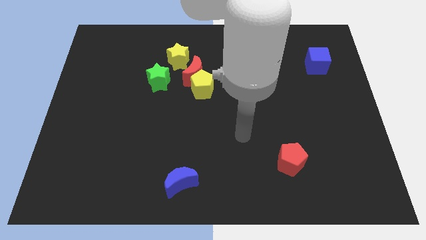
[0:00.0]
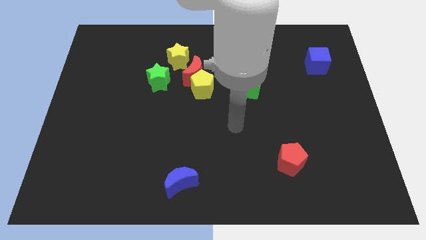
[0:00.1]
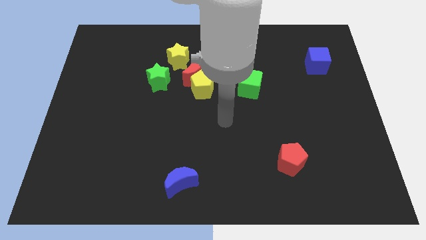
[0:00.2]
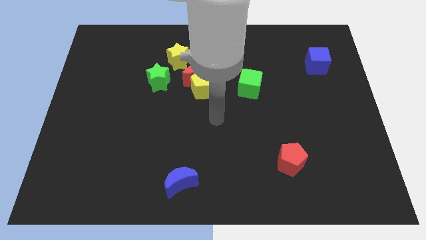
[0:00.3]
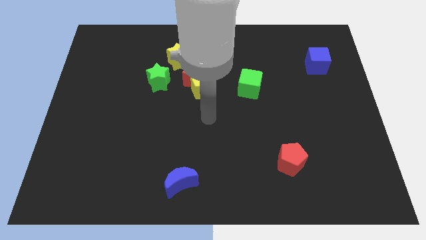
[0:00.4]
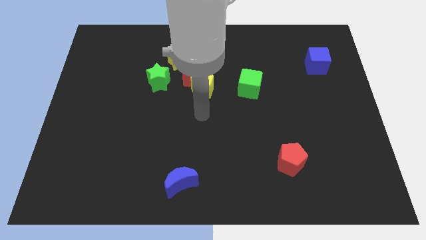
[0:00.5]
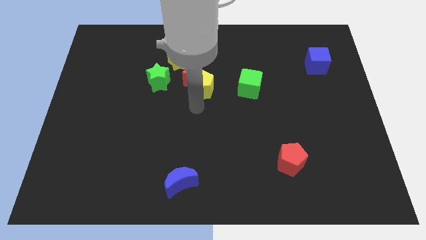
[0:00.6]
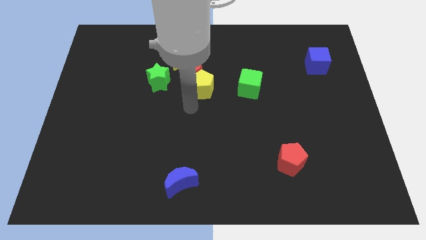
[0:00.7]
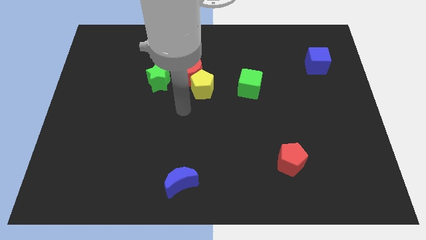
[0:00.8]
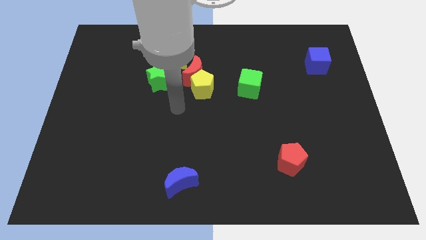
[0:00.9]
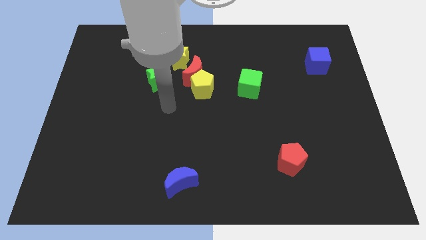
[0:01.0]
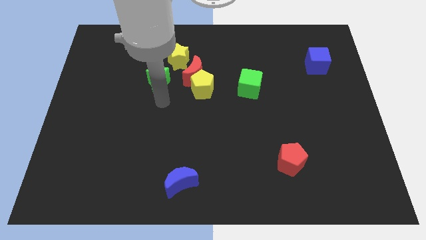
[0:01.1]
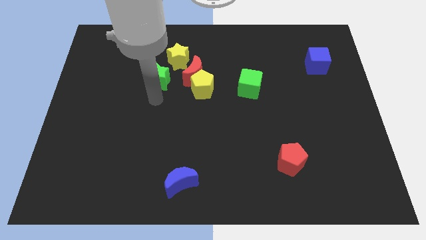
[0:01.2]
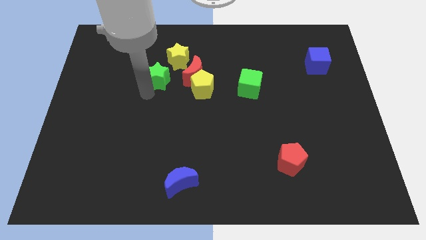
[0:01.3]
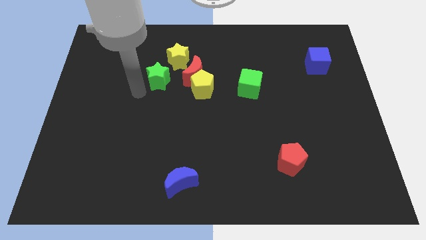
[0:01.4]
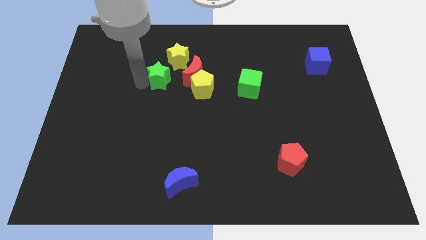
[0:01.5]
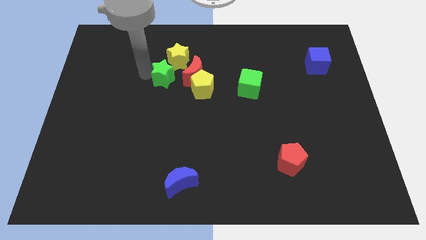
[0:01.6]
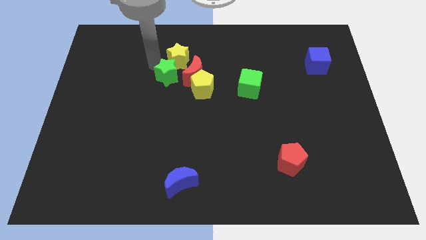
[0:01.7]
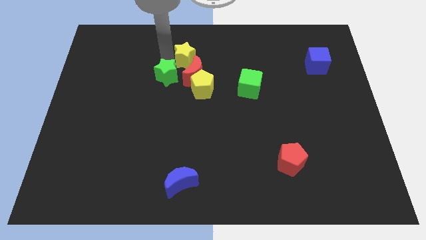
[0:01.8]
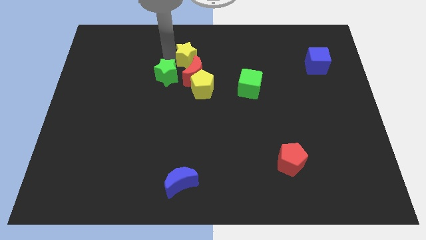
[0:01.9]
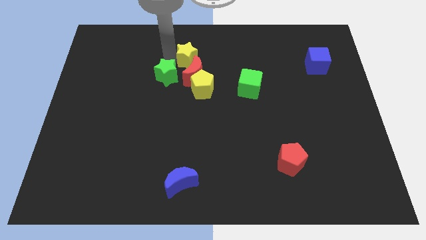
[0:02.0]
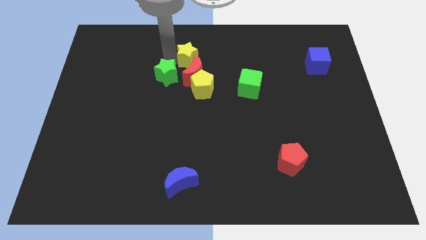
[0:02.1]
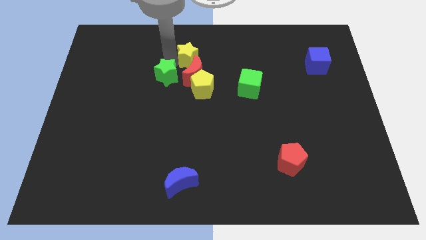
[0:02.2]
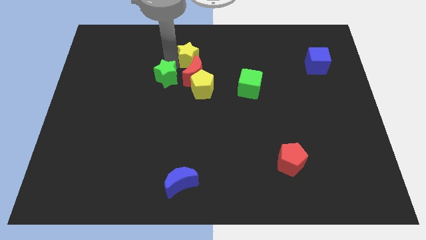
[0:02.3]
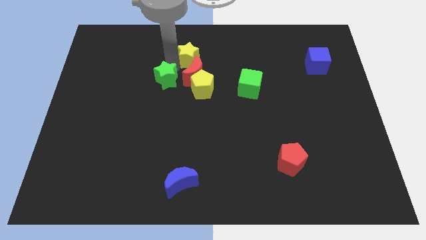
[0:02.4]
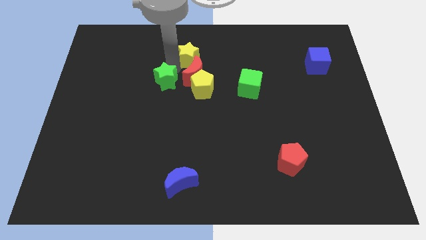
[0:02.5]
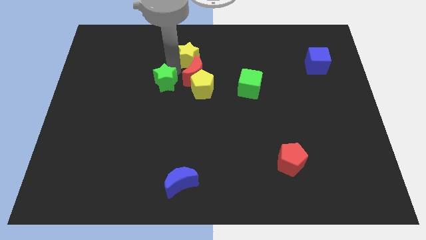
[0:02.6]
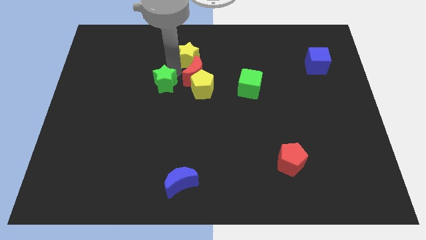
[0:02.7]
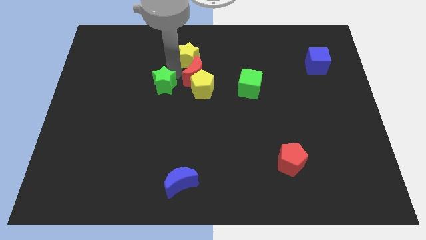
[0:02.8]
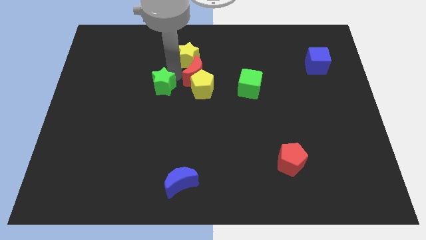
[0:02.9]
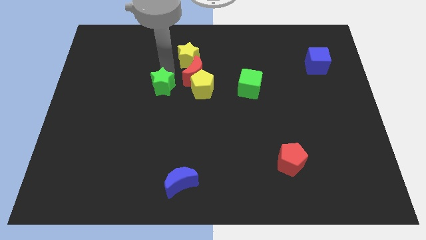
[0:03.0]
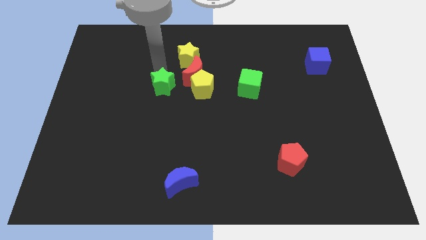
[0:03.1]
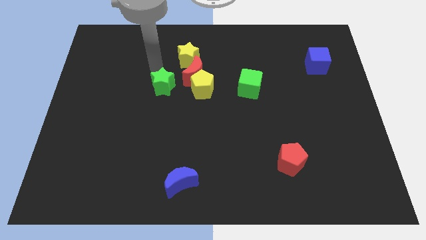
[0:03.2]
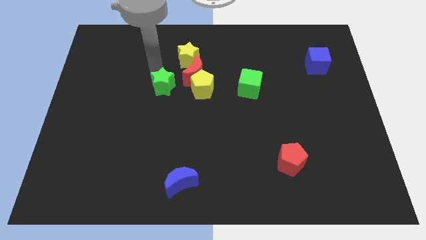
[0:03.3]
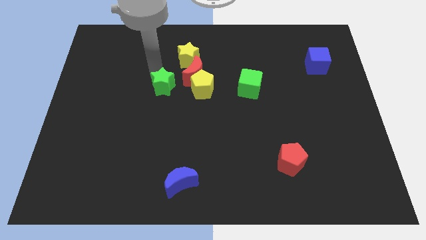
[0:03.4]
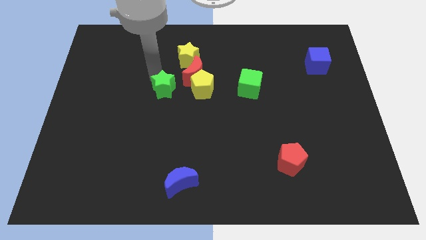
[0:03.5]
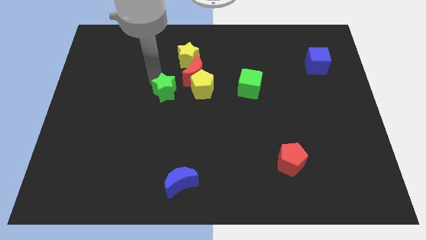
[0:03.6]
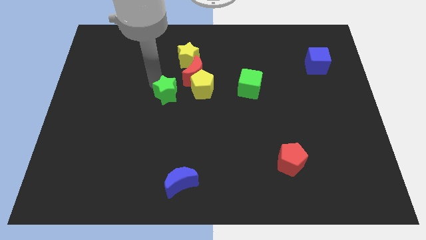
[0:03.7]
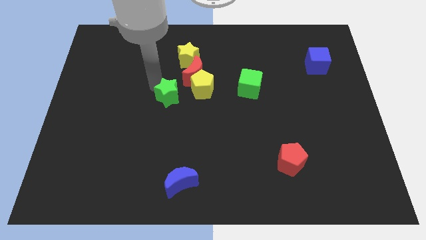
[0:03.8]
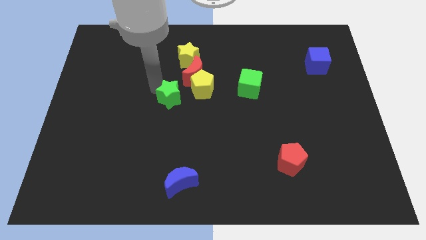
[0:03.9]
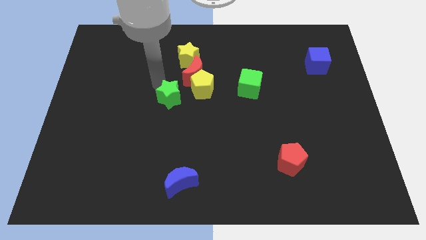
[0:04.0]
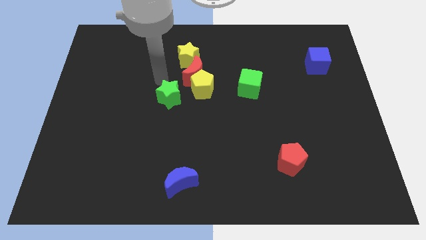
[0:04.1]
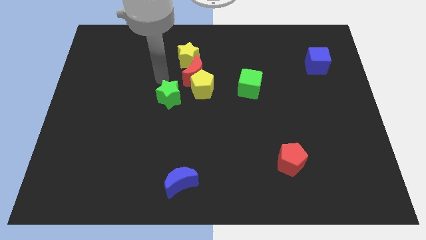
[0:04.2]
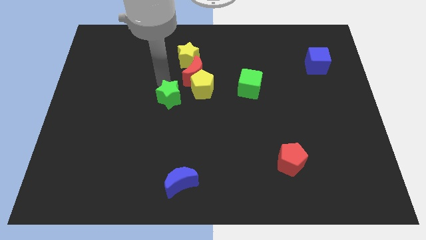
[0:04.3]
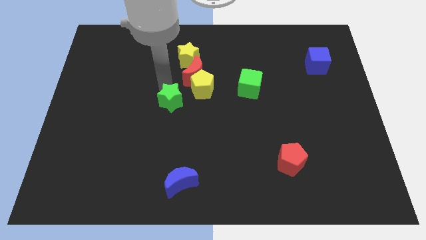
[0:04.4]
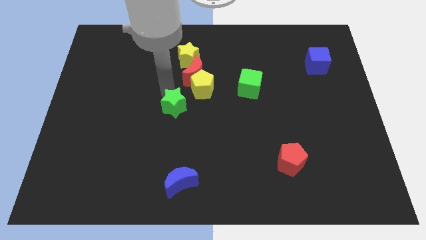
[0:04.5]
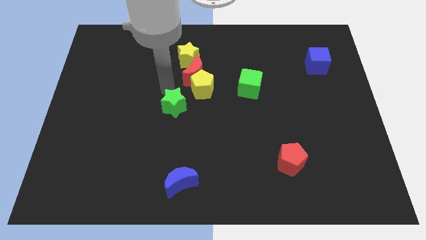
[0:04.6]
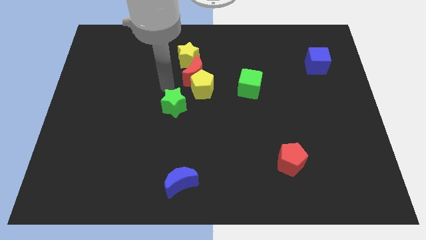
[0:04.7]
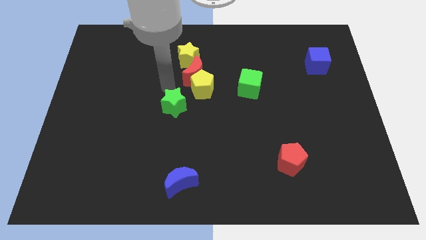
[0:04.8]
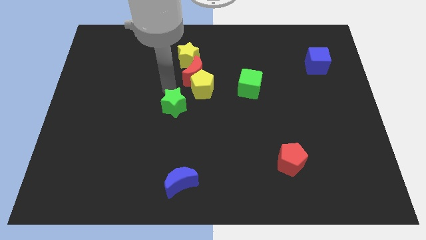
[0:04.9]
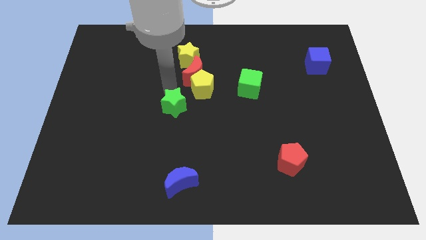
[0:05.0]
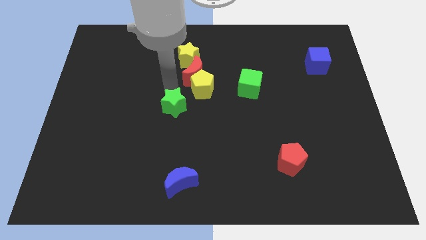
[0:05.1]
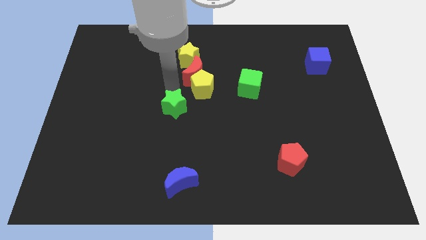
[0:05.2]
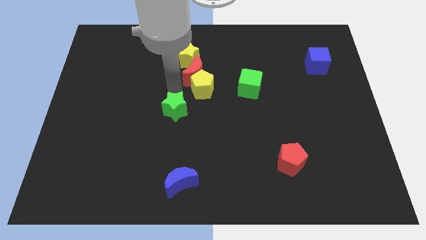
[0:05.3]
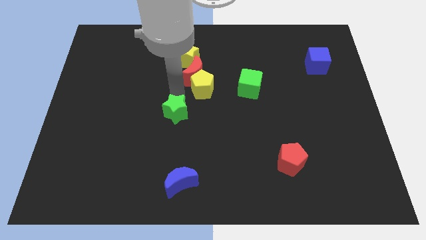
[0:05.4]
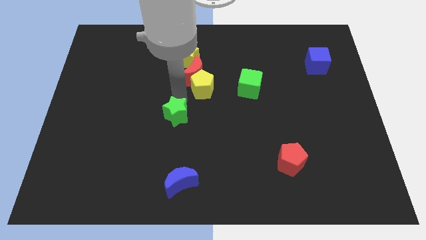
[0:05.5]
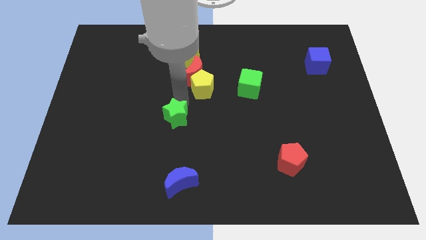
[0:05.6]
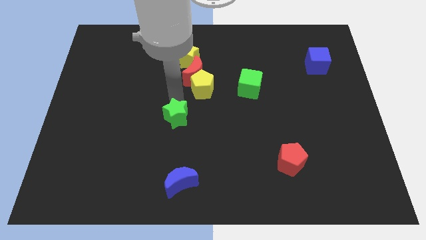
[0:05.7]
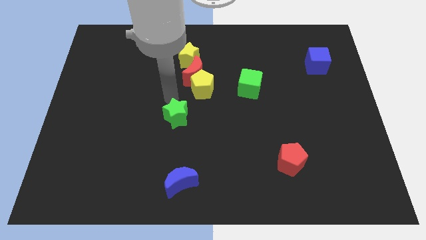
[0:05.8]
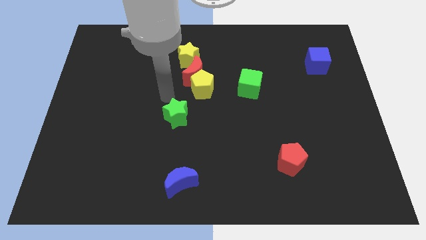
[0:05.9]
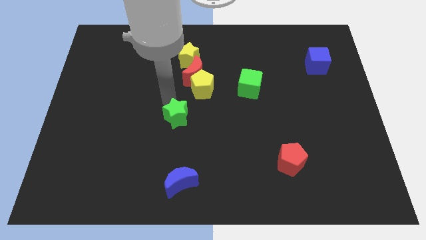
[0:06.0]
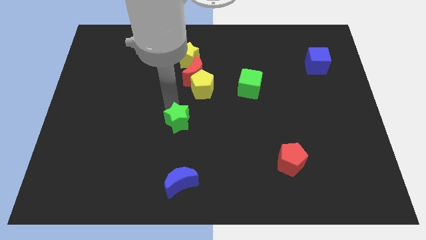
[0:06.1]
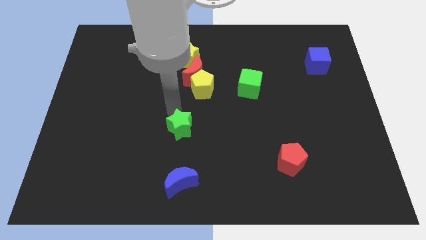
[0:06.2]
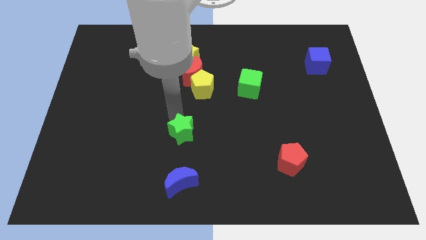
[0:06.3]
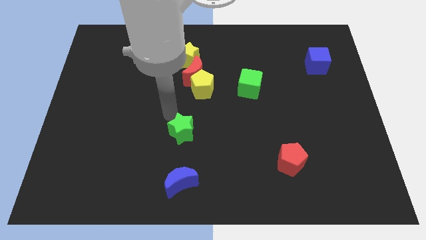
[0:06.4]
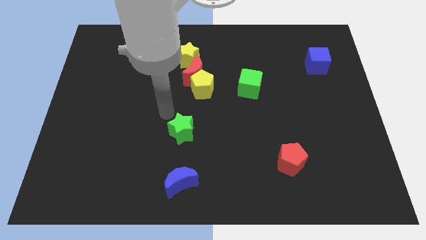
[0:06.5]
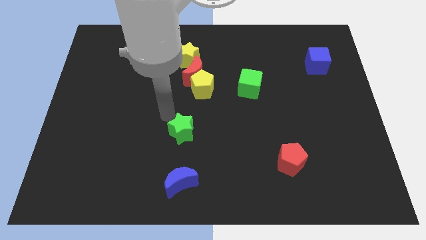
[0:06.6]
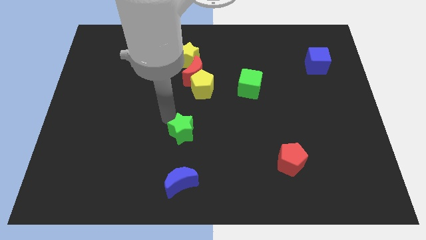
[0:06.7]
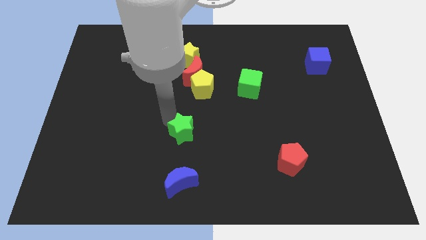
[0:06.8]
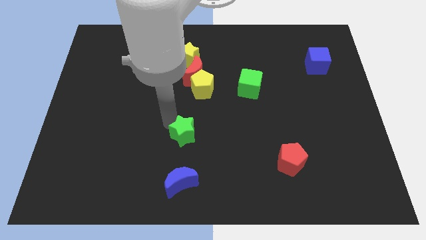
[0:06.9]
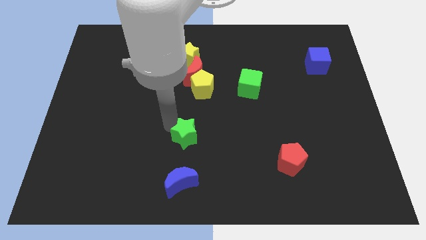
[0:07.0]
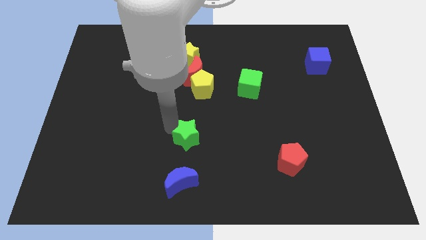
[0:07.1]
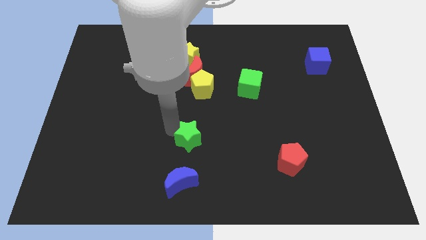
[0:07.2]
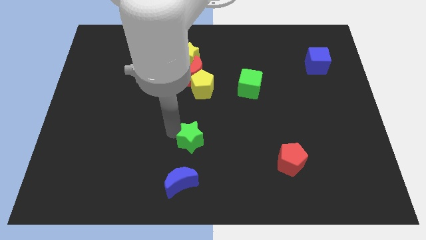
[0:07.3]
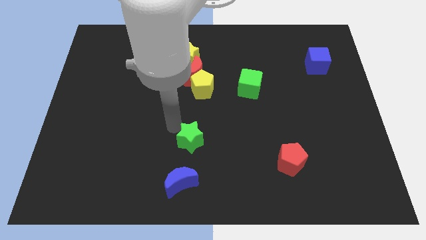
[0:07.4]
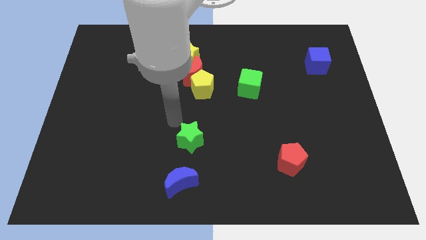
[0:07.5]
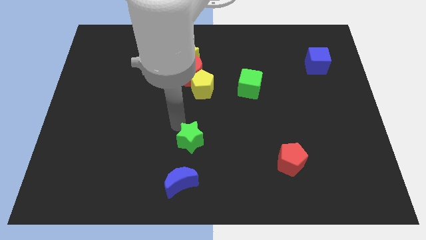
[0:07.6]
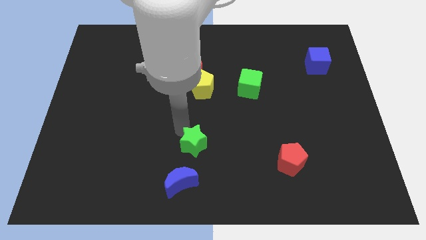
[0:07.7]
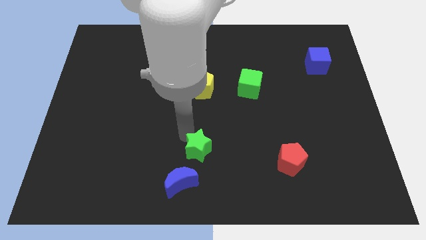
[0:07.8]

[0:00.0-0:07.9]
slide the green star diagonally up and to the right of the blue moon
